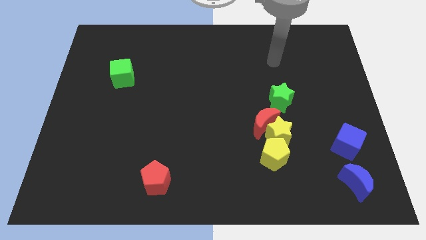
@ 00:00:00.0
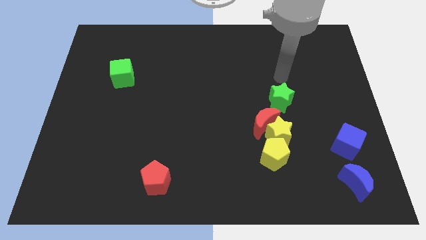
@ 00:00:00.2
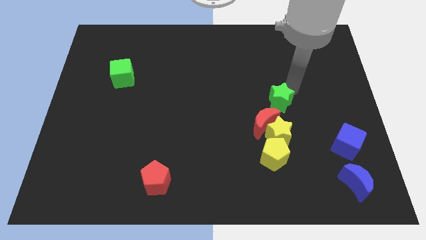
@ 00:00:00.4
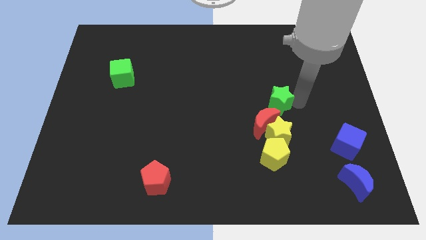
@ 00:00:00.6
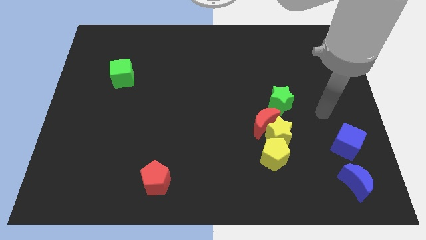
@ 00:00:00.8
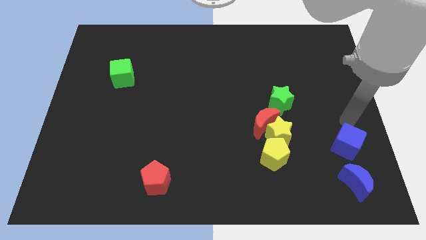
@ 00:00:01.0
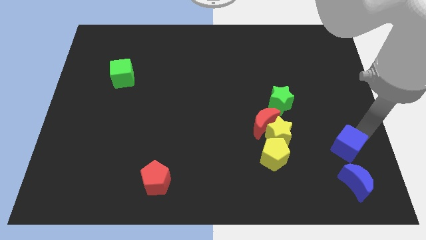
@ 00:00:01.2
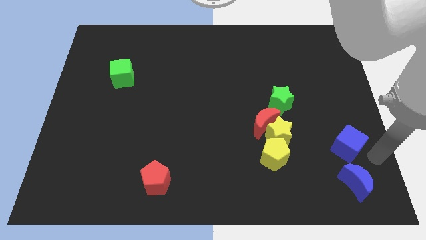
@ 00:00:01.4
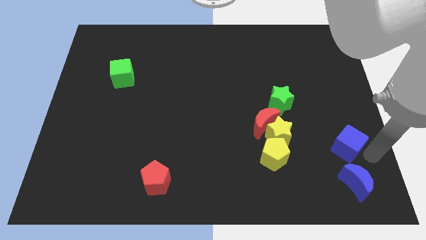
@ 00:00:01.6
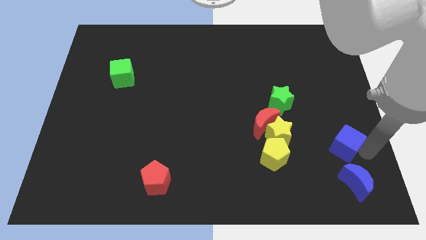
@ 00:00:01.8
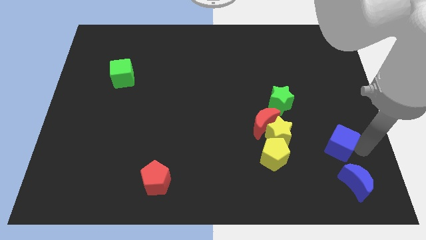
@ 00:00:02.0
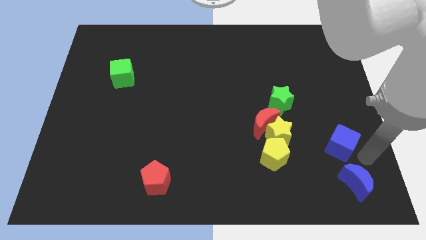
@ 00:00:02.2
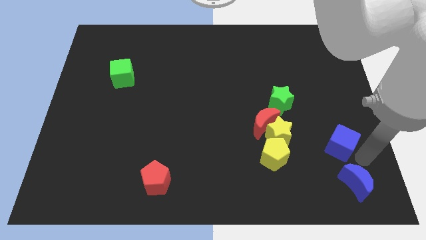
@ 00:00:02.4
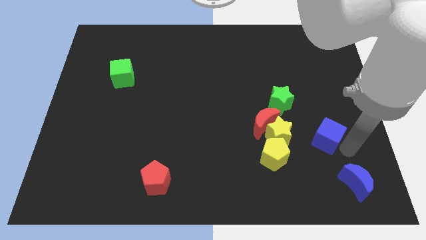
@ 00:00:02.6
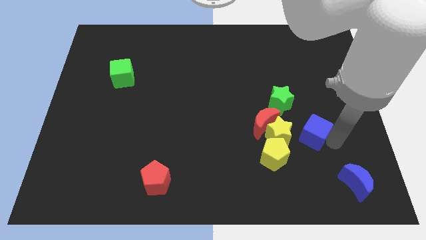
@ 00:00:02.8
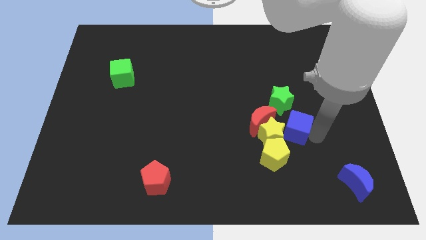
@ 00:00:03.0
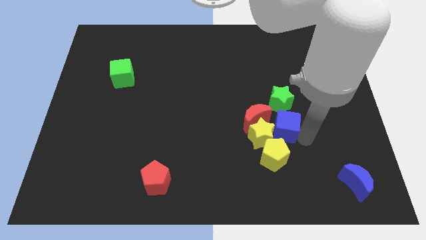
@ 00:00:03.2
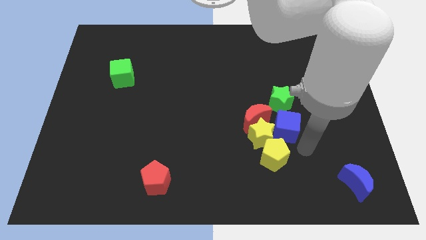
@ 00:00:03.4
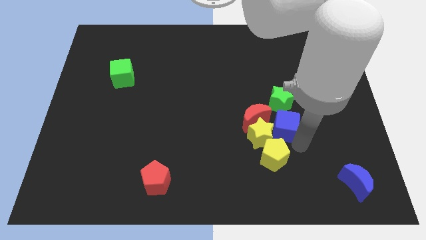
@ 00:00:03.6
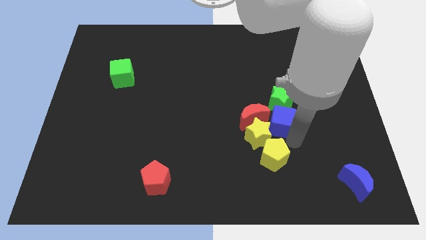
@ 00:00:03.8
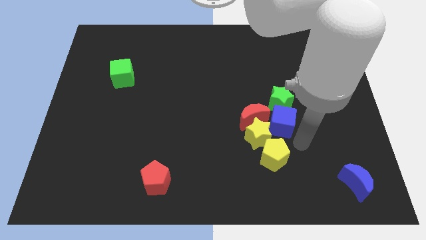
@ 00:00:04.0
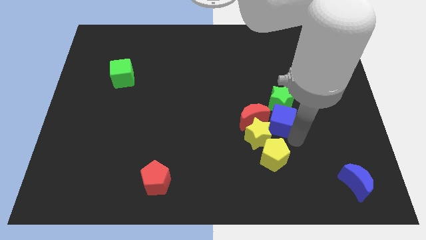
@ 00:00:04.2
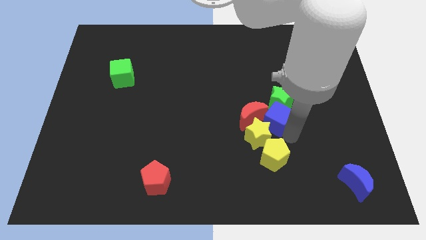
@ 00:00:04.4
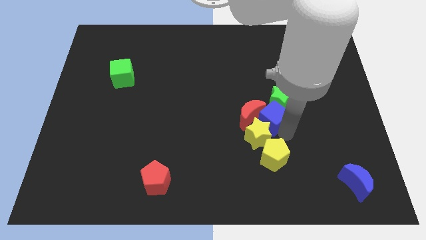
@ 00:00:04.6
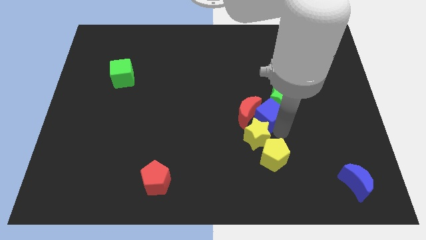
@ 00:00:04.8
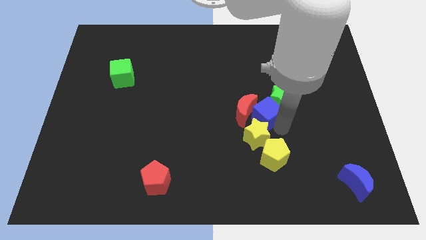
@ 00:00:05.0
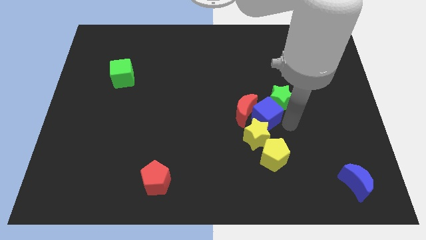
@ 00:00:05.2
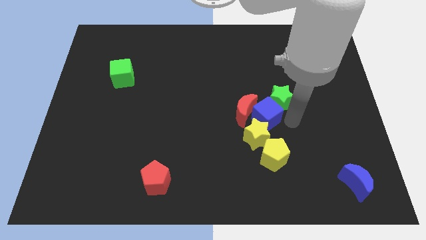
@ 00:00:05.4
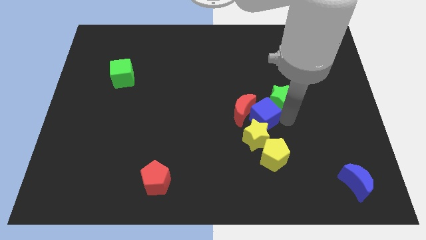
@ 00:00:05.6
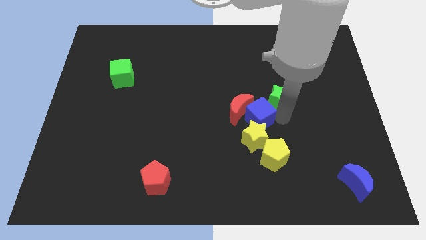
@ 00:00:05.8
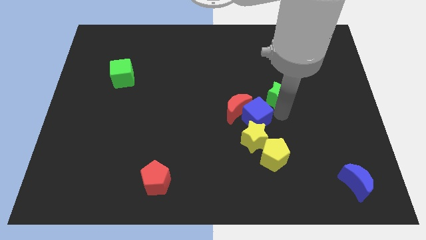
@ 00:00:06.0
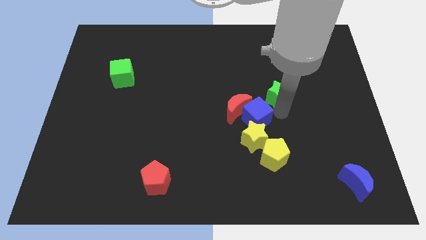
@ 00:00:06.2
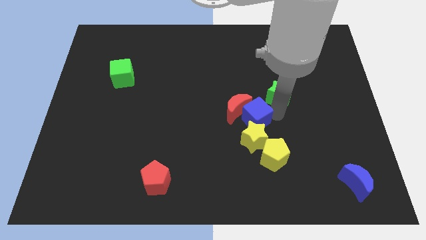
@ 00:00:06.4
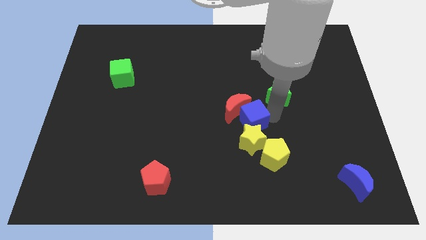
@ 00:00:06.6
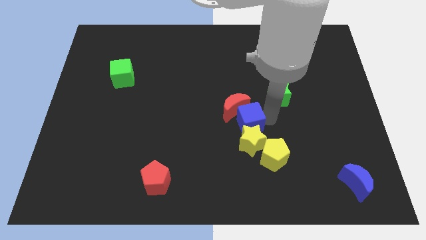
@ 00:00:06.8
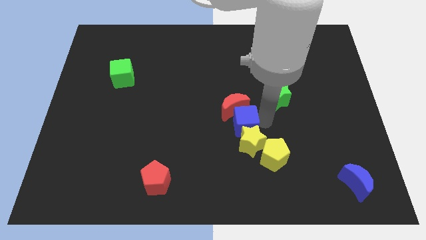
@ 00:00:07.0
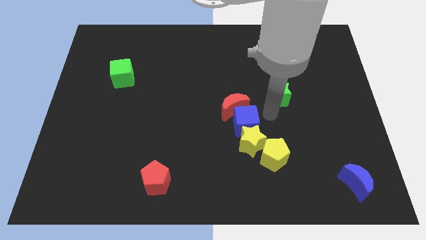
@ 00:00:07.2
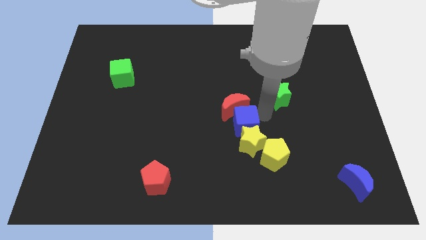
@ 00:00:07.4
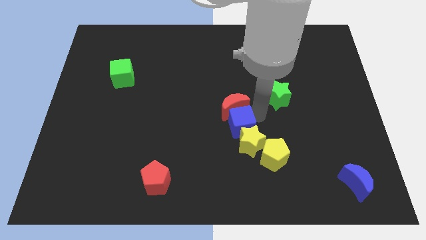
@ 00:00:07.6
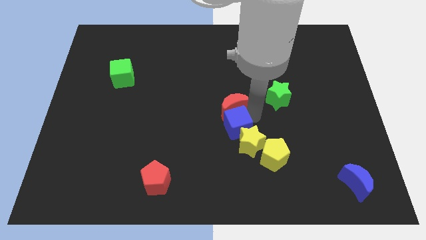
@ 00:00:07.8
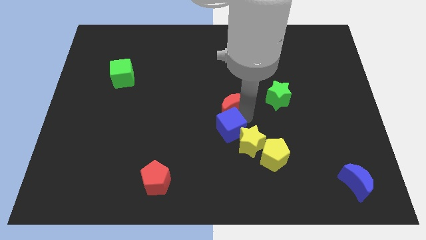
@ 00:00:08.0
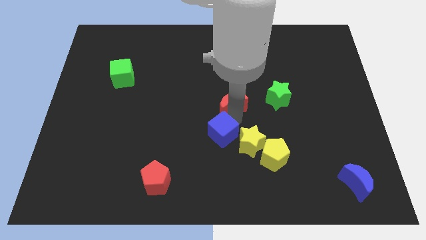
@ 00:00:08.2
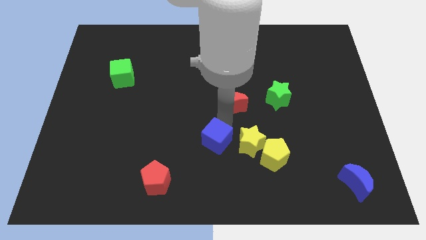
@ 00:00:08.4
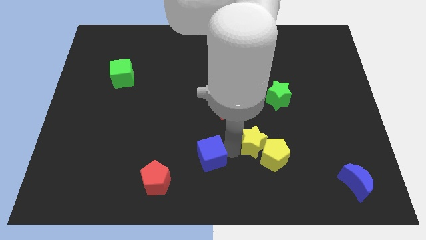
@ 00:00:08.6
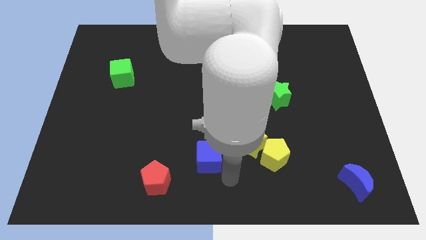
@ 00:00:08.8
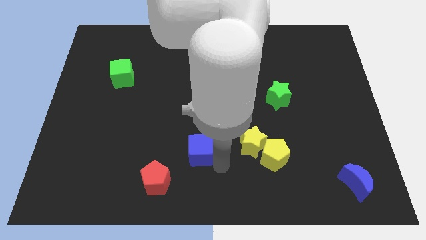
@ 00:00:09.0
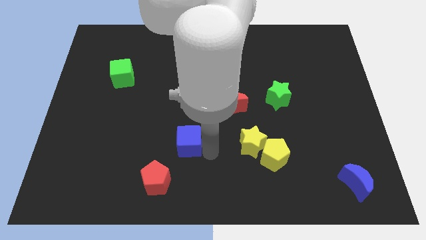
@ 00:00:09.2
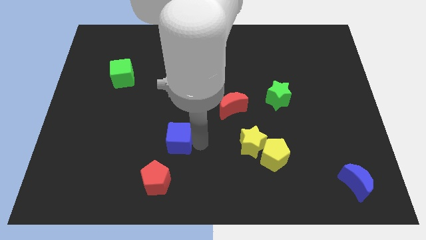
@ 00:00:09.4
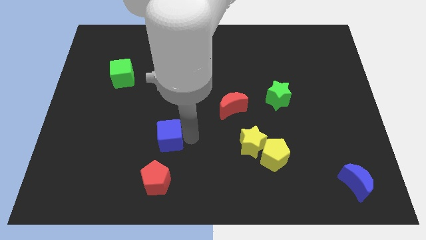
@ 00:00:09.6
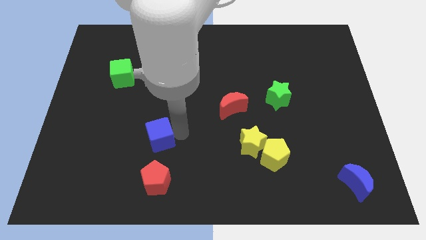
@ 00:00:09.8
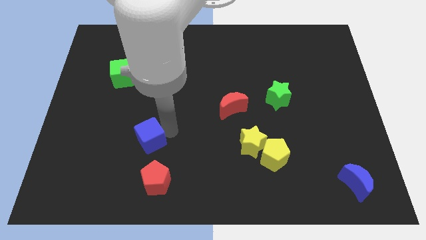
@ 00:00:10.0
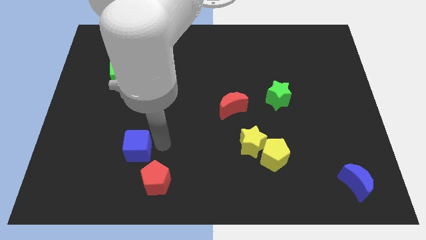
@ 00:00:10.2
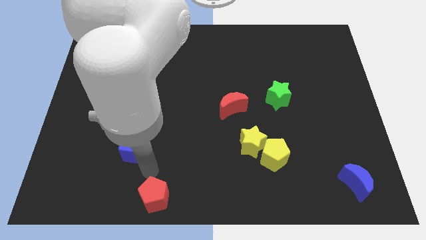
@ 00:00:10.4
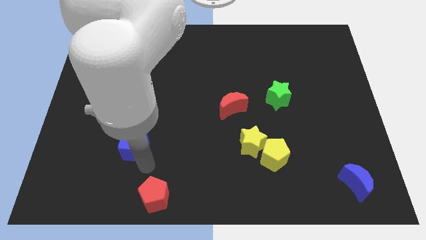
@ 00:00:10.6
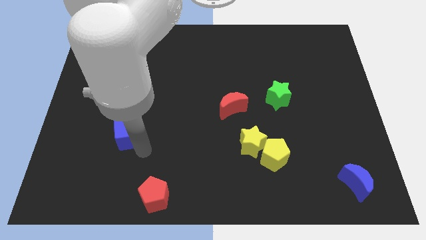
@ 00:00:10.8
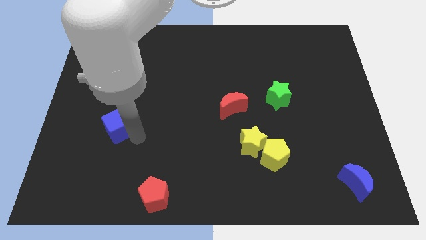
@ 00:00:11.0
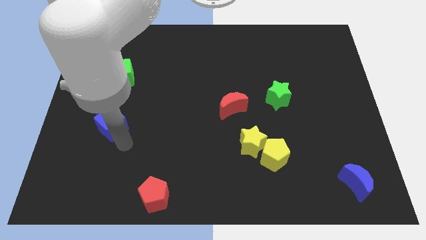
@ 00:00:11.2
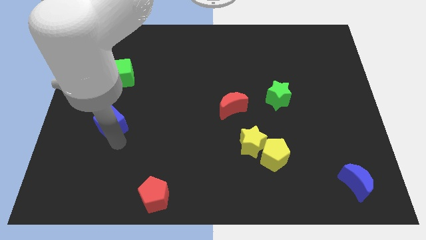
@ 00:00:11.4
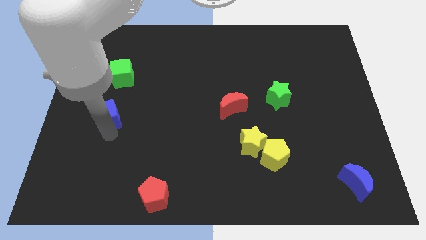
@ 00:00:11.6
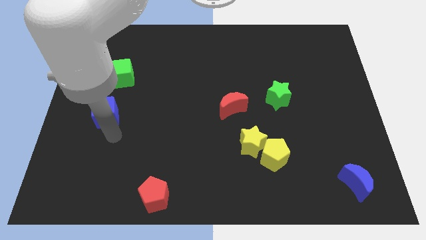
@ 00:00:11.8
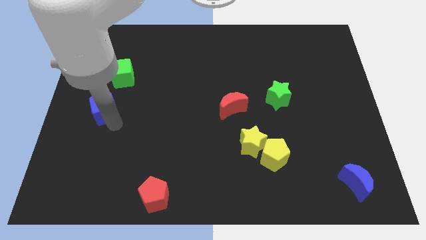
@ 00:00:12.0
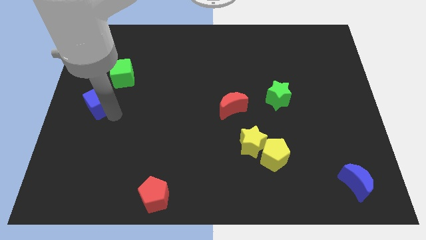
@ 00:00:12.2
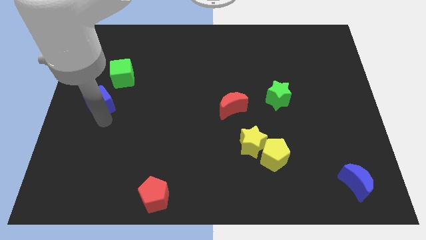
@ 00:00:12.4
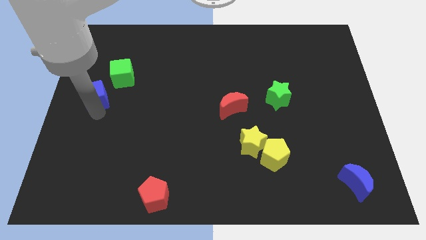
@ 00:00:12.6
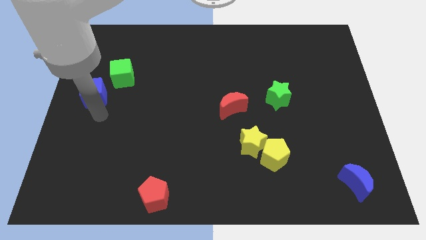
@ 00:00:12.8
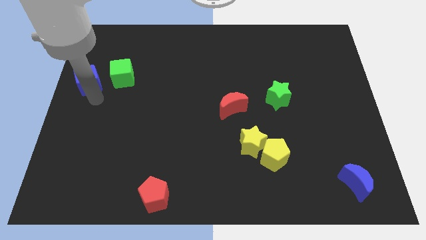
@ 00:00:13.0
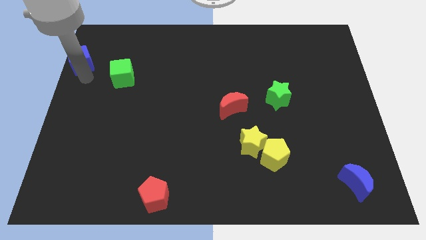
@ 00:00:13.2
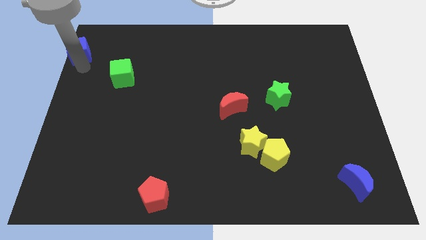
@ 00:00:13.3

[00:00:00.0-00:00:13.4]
push the blue cube to the top left corner
